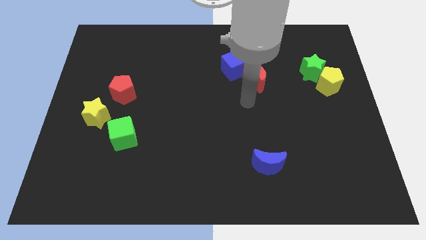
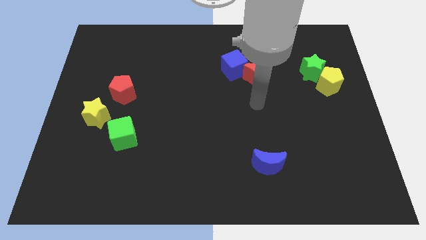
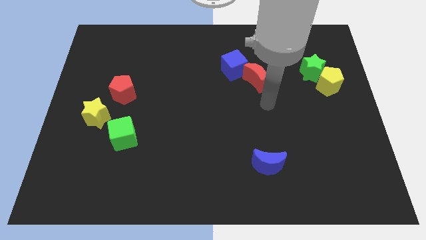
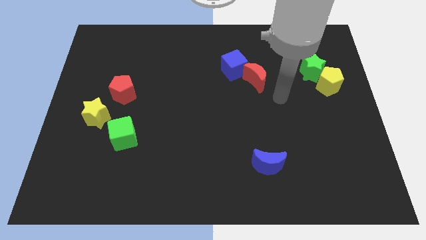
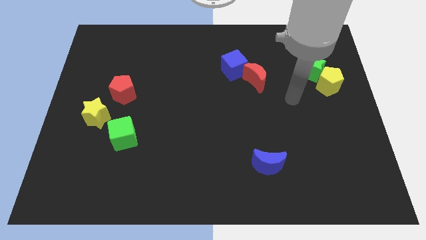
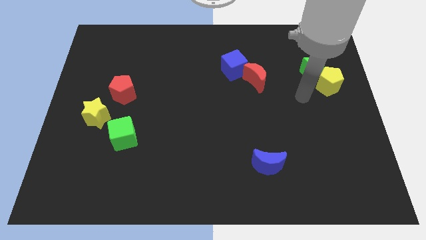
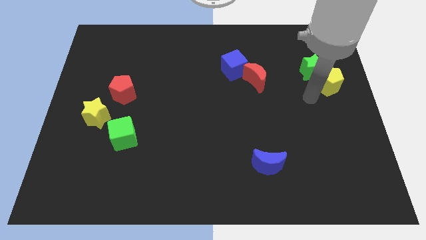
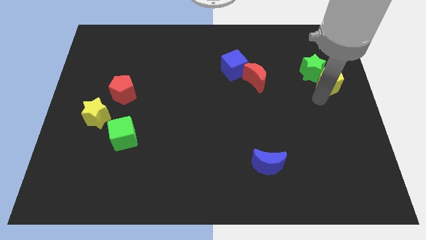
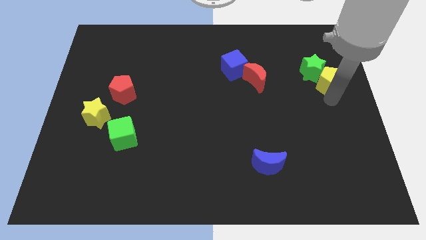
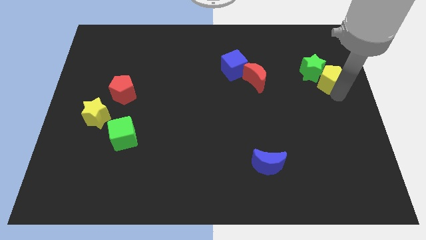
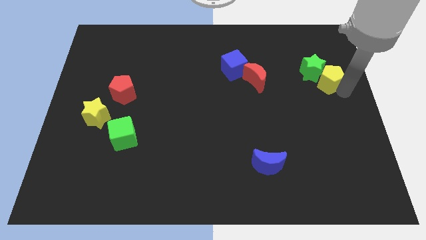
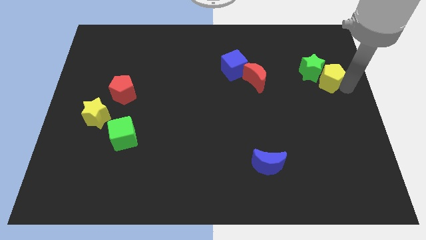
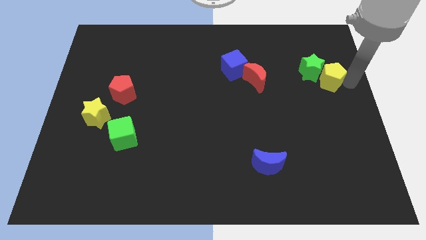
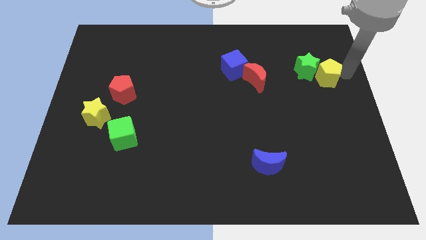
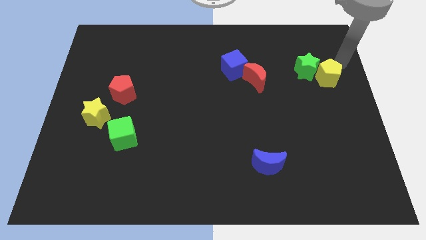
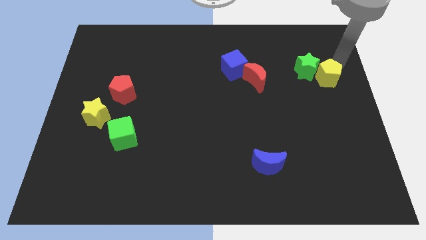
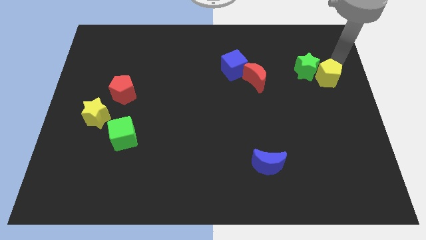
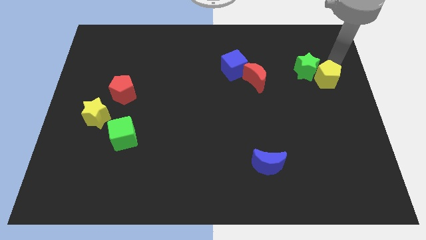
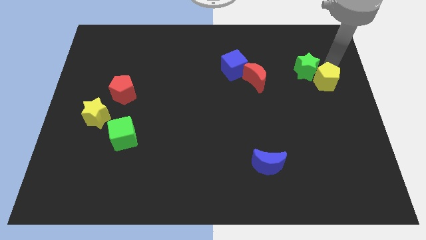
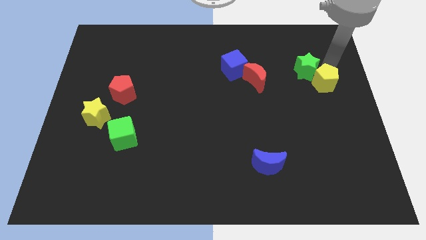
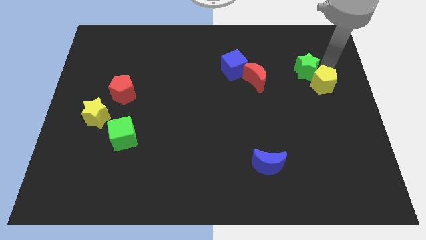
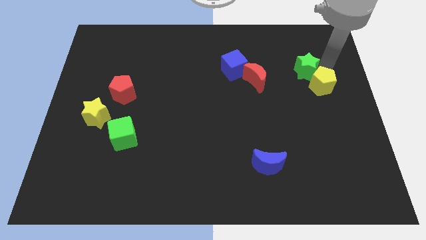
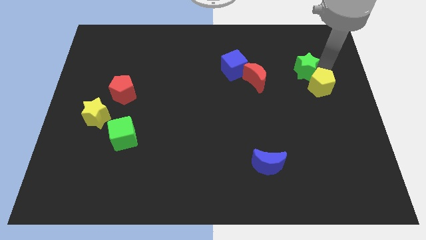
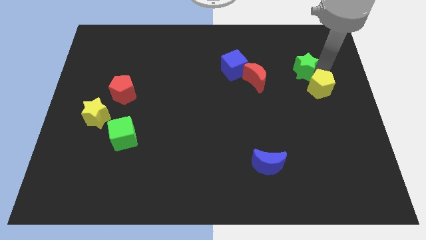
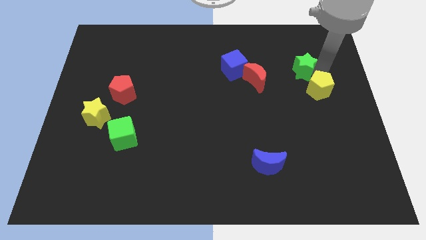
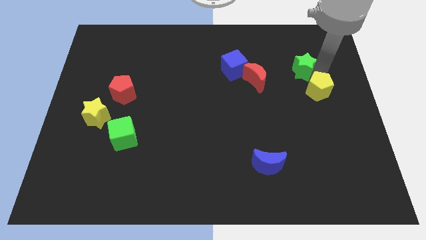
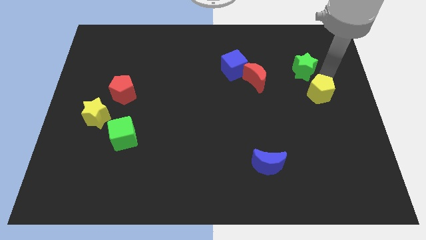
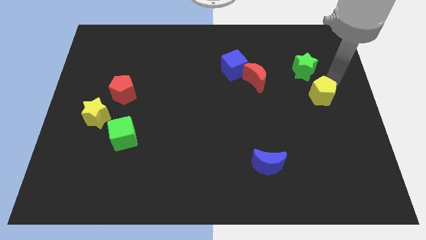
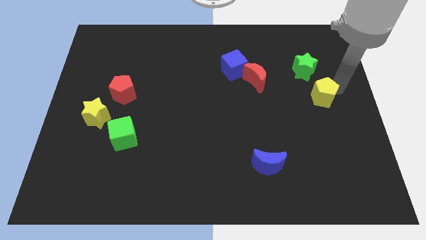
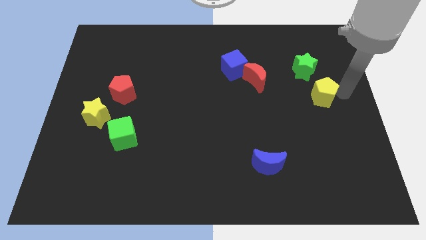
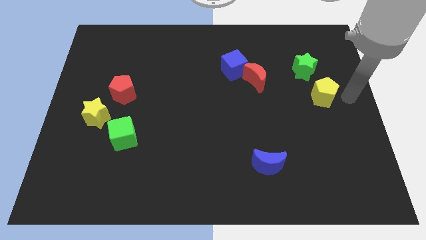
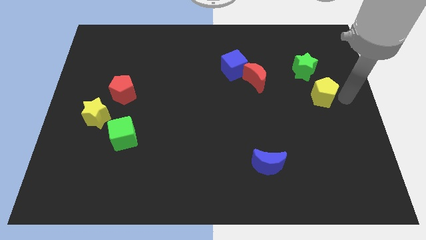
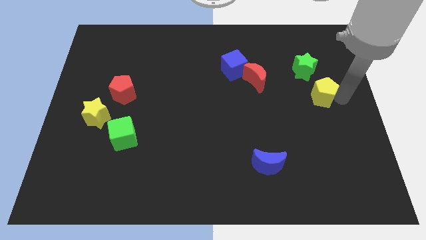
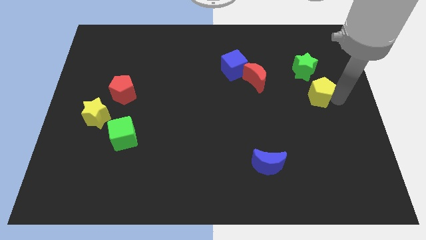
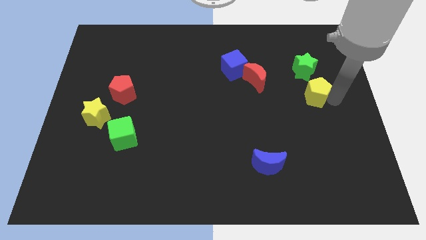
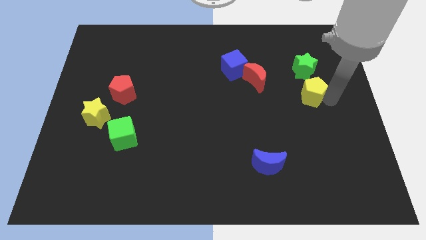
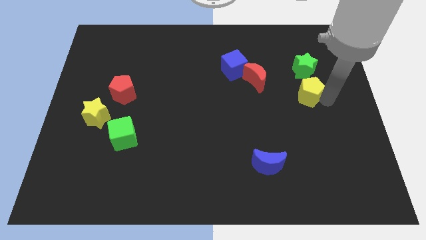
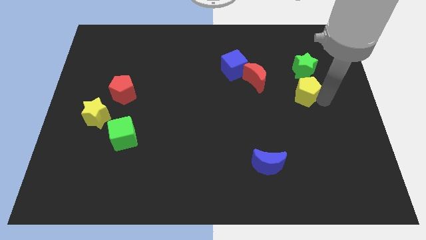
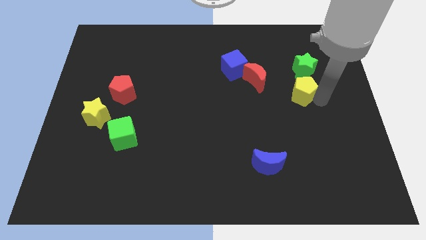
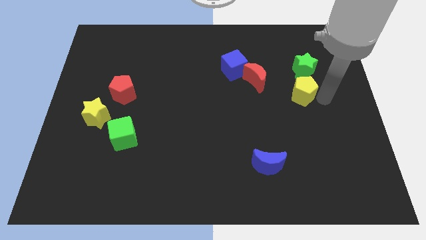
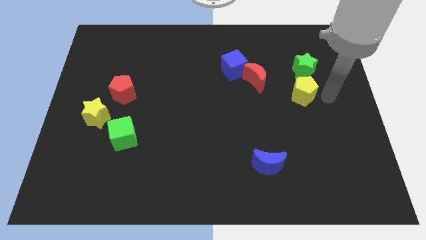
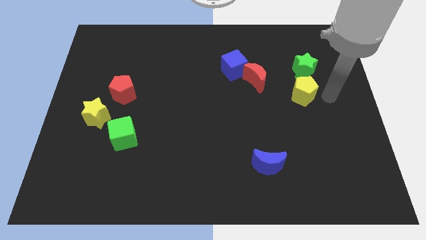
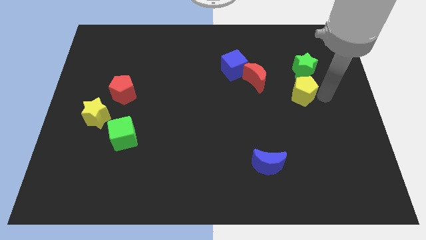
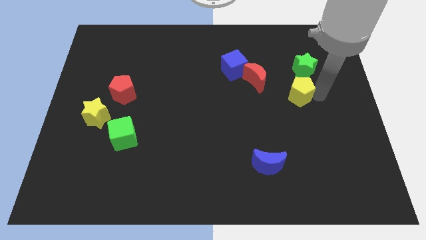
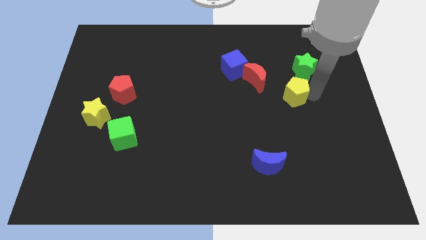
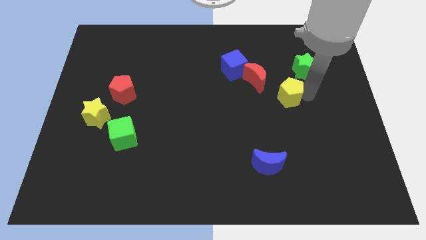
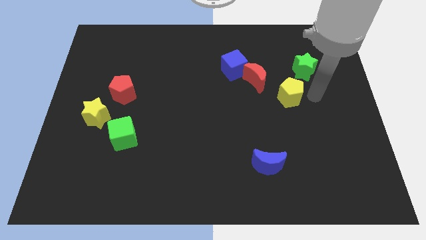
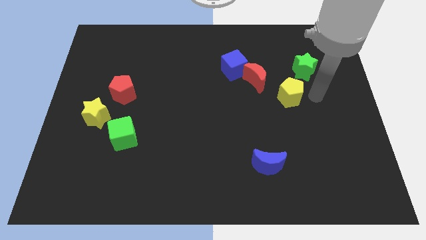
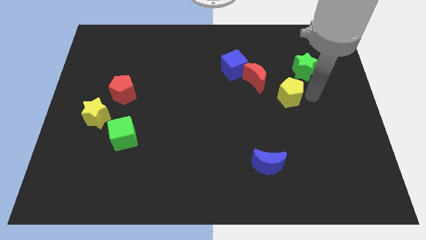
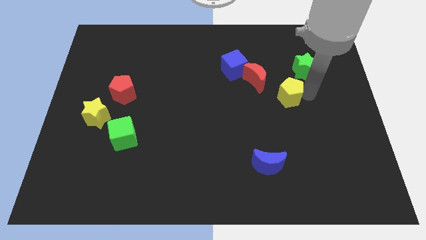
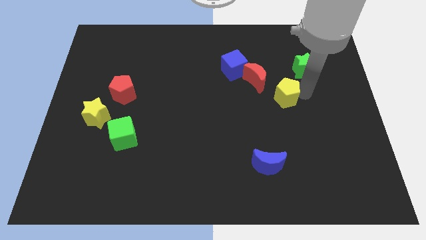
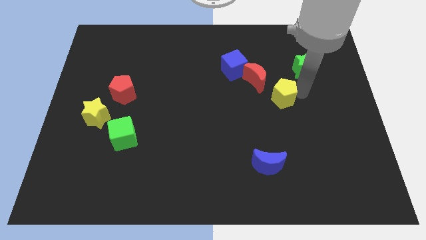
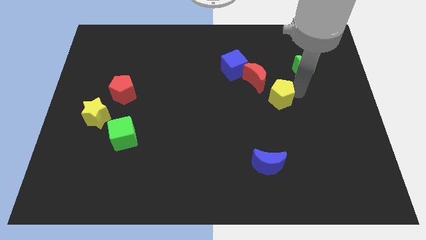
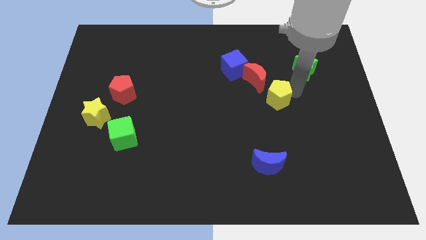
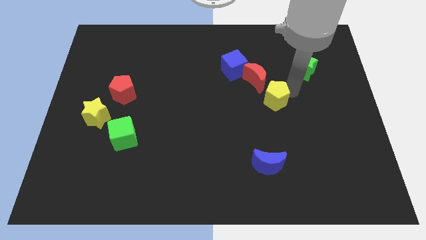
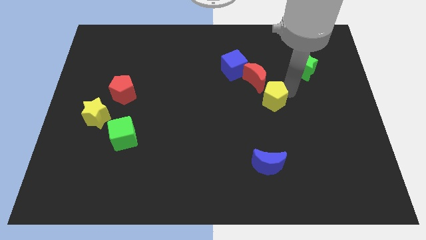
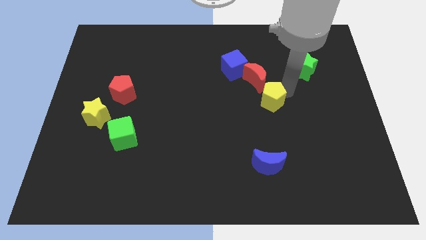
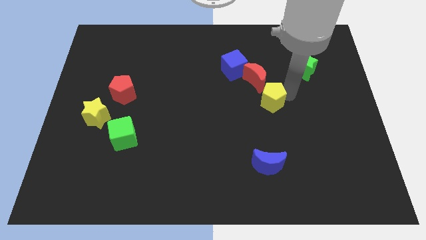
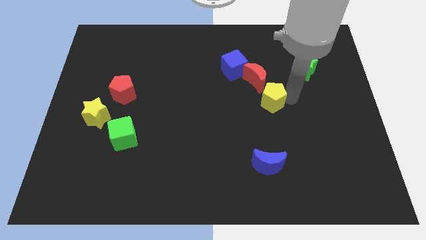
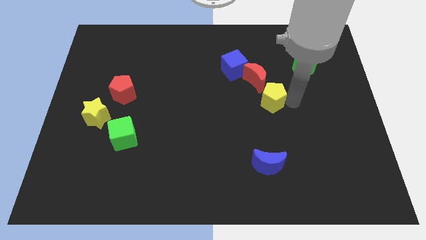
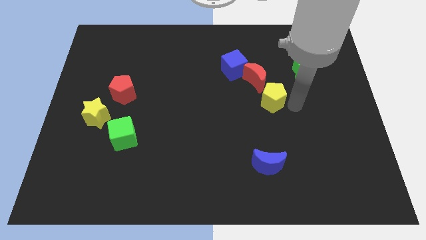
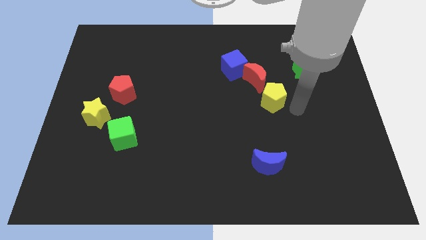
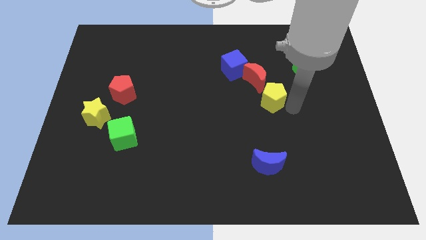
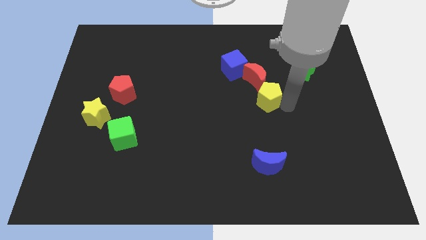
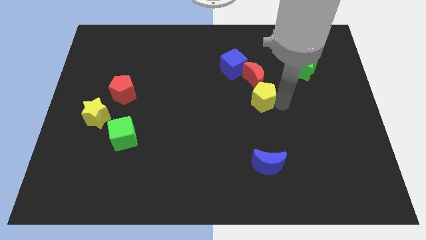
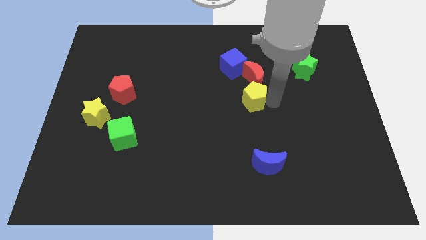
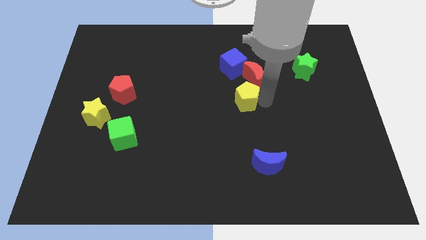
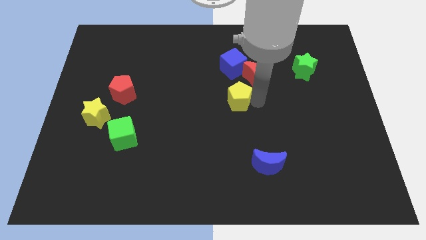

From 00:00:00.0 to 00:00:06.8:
push the yellow pentagon to the left

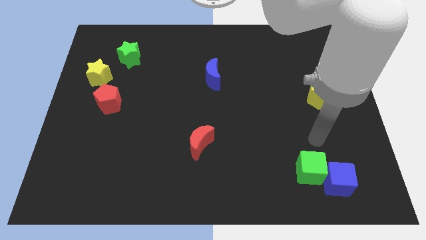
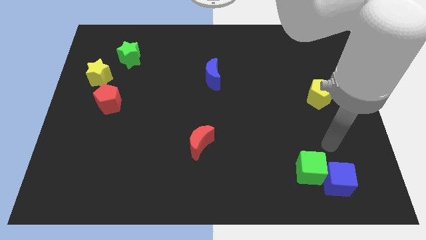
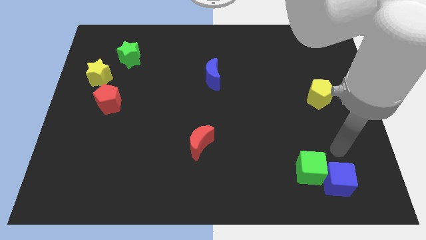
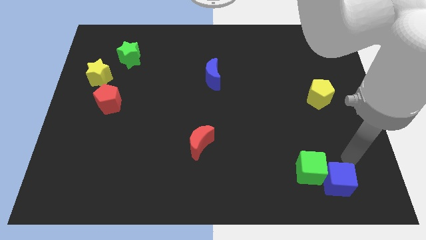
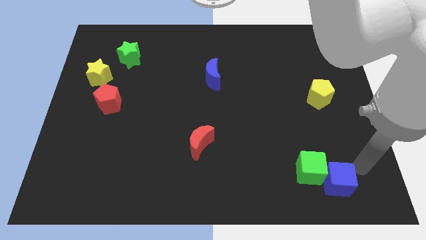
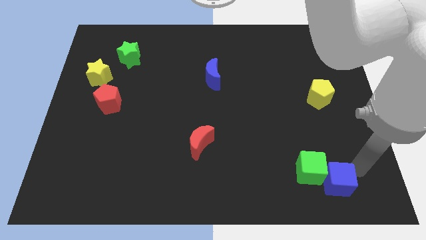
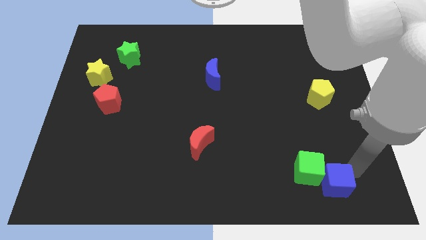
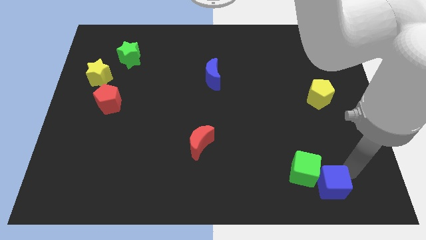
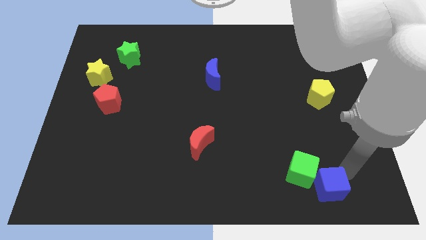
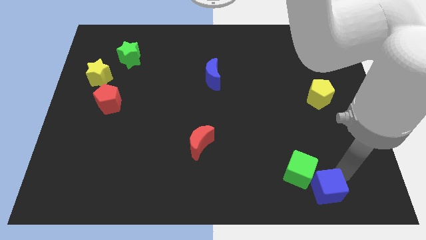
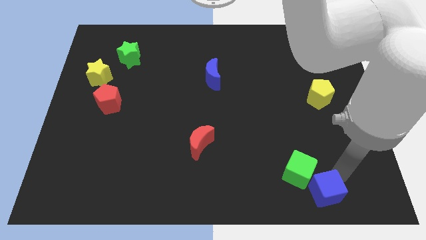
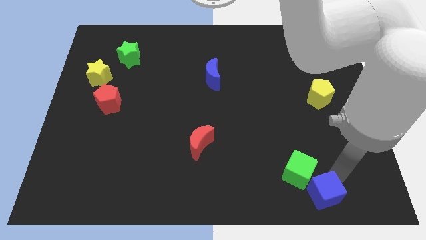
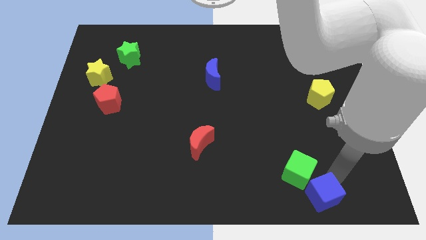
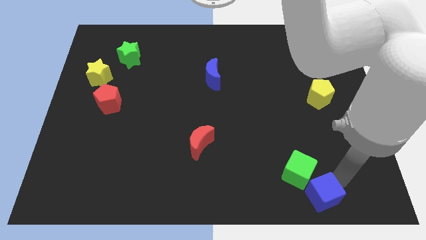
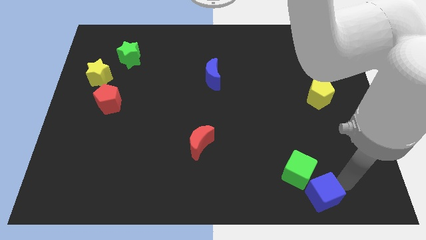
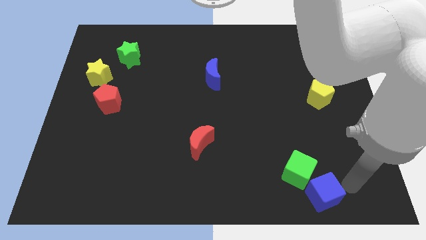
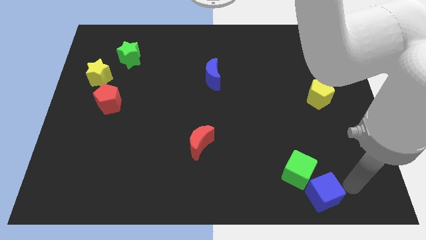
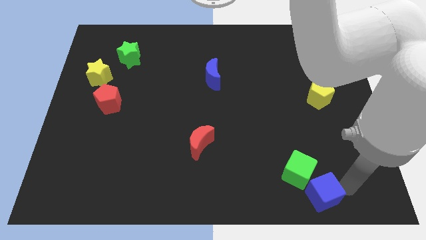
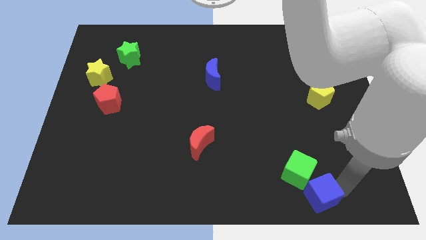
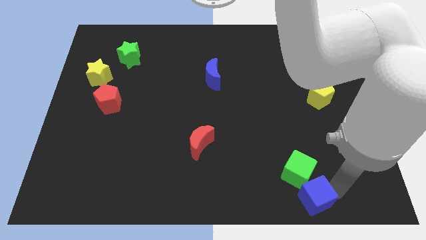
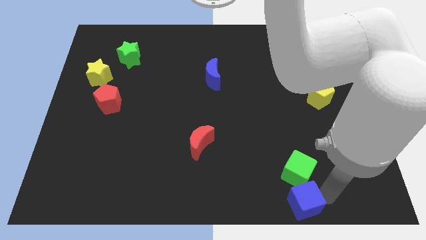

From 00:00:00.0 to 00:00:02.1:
push the blue cube to the left a bit
